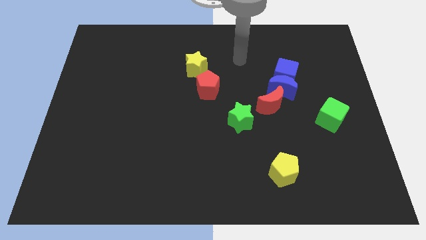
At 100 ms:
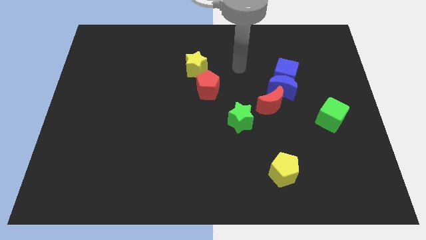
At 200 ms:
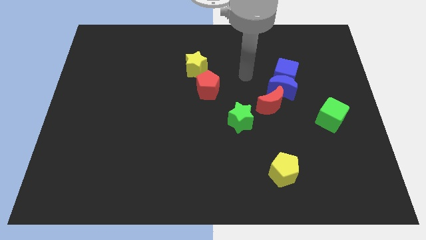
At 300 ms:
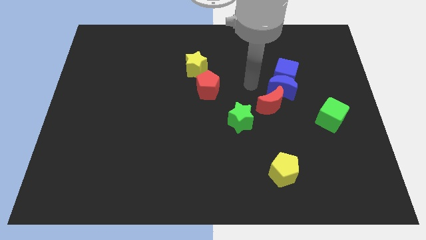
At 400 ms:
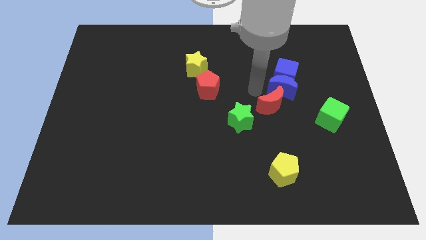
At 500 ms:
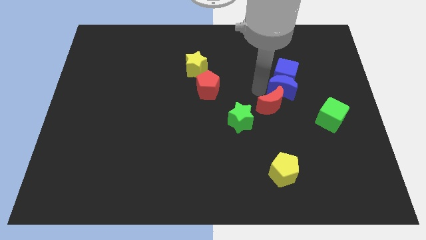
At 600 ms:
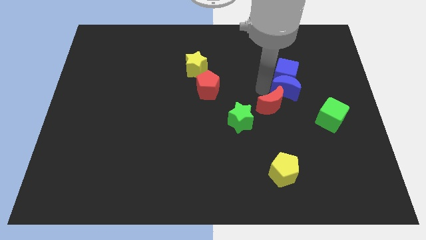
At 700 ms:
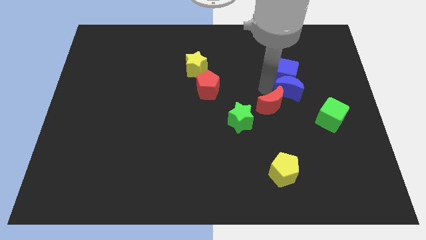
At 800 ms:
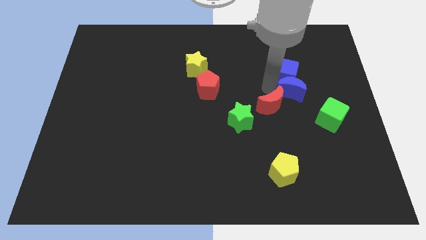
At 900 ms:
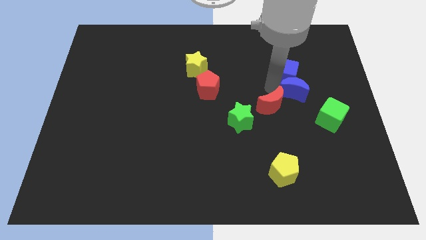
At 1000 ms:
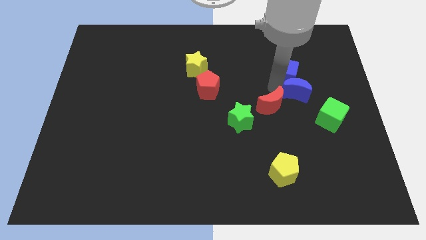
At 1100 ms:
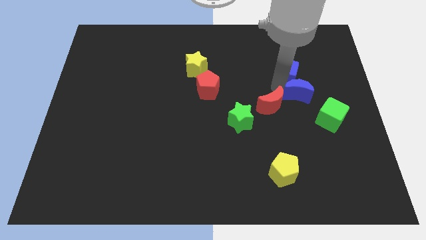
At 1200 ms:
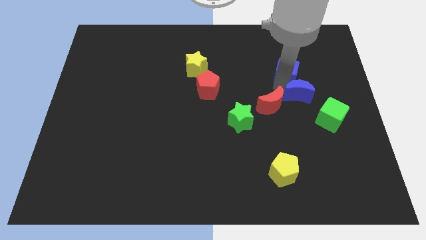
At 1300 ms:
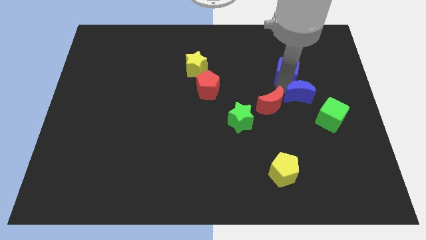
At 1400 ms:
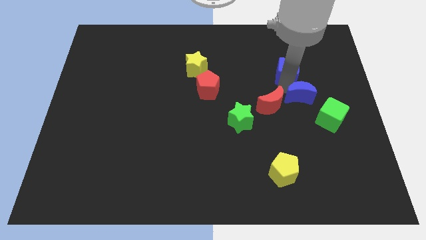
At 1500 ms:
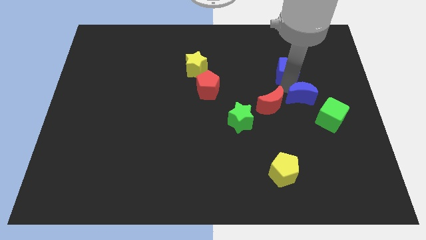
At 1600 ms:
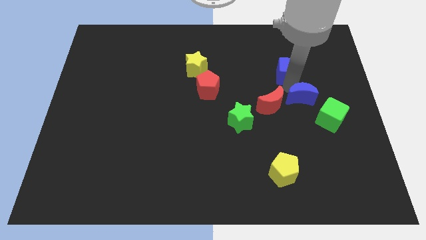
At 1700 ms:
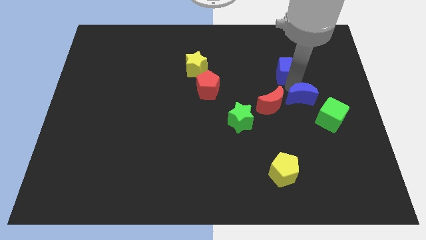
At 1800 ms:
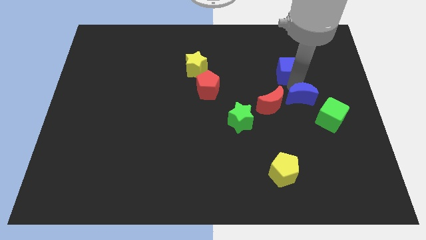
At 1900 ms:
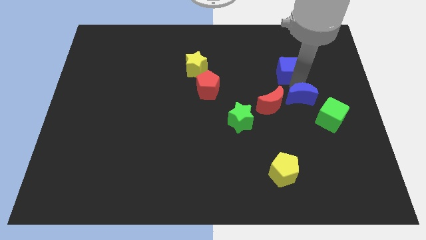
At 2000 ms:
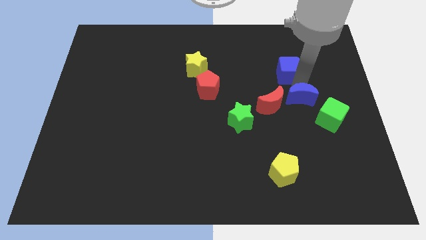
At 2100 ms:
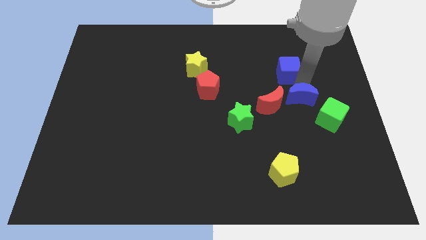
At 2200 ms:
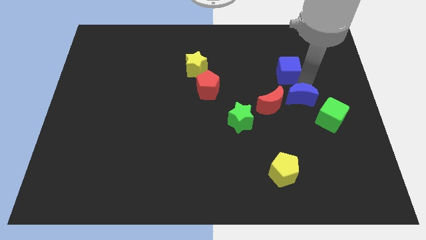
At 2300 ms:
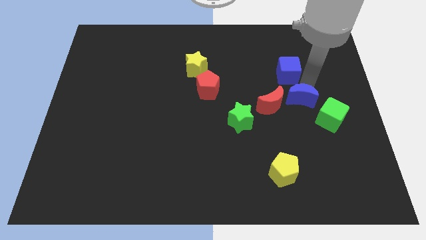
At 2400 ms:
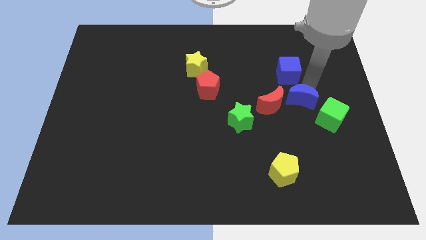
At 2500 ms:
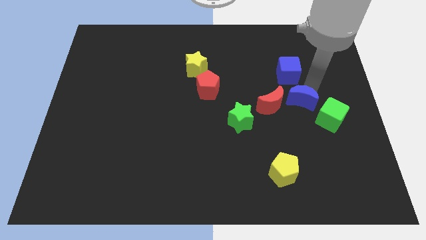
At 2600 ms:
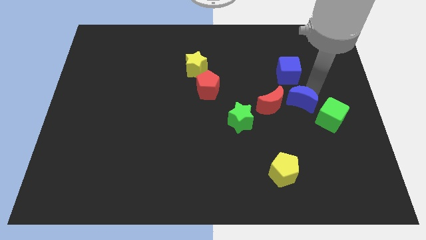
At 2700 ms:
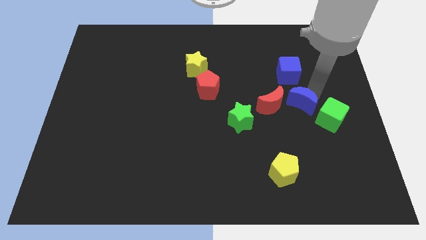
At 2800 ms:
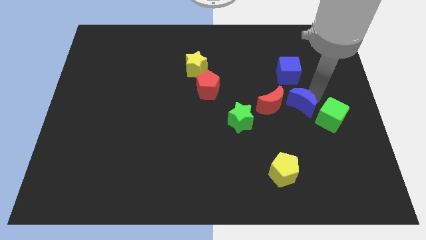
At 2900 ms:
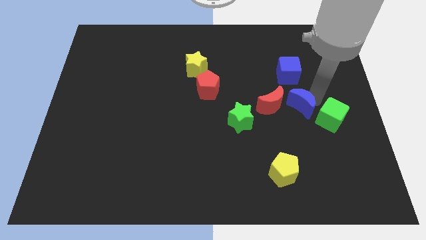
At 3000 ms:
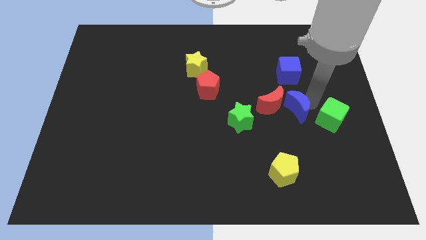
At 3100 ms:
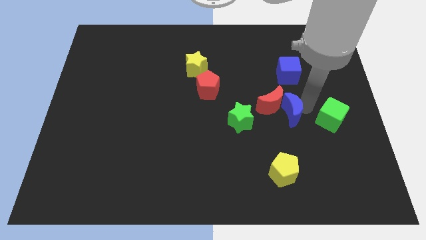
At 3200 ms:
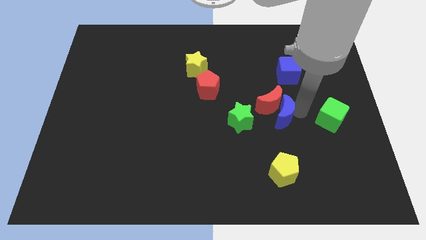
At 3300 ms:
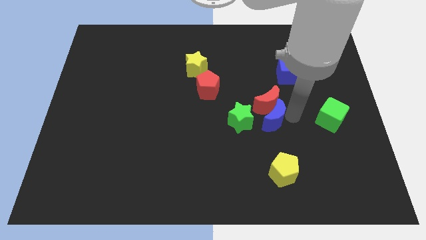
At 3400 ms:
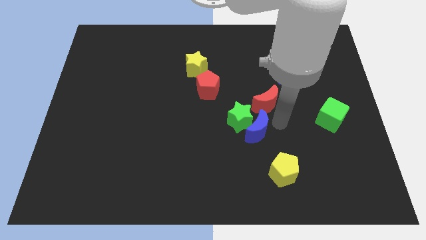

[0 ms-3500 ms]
move the blue moon away from the blue cube and red moon

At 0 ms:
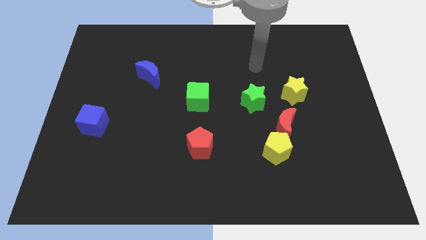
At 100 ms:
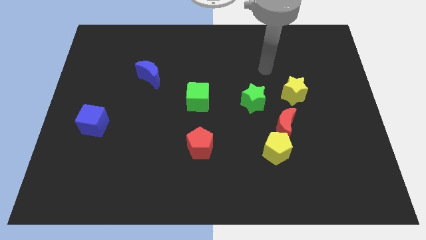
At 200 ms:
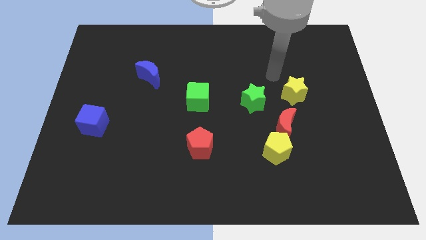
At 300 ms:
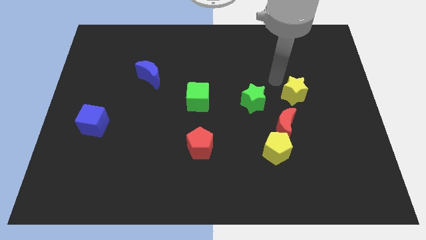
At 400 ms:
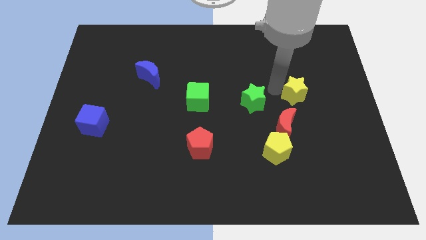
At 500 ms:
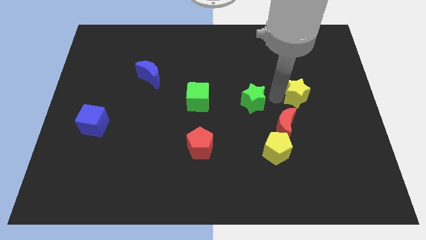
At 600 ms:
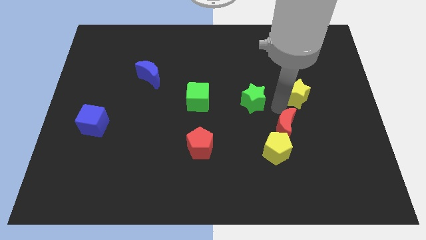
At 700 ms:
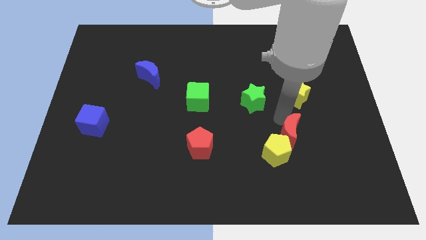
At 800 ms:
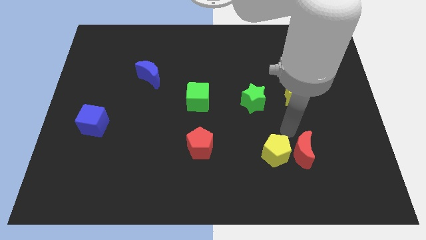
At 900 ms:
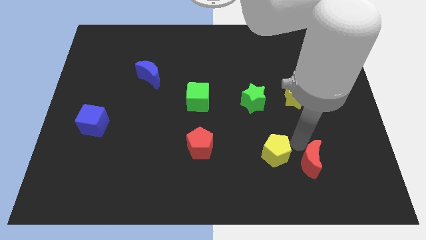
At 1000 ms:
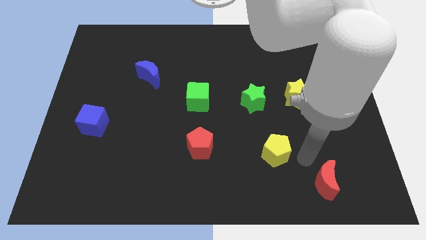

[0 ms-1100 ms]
separate the yellow pentagon from the red moon

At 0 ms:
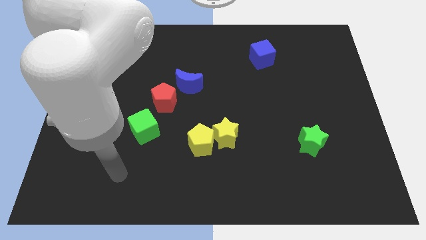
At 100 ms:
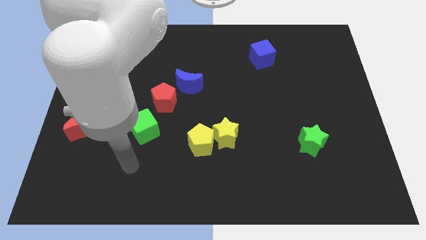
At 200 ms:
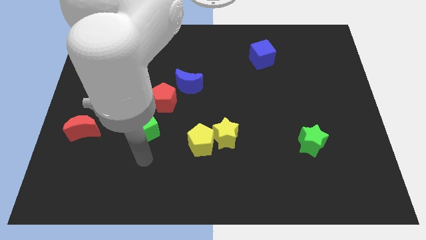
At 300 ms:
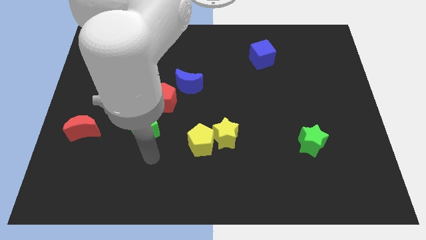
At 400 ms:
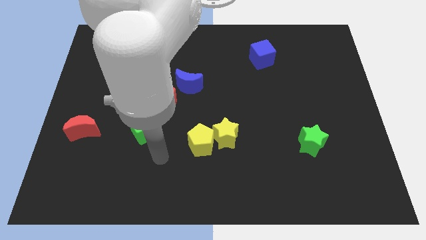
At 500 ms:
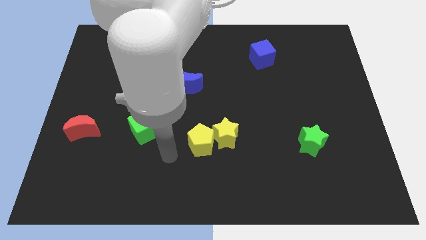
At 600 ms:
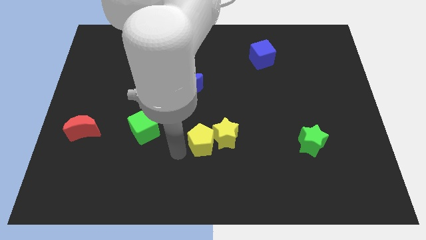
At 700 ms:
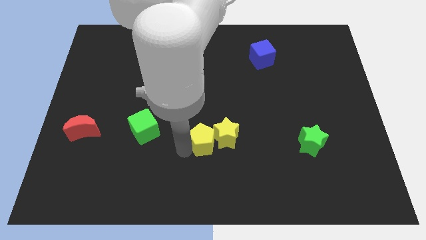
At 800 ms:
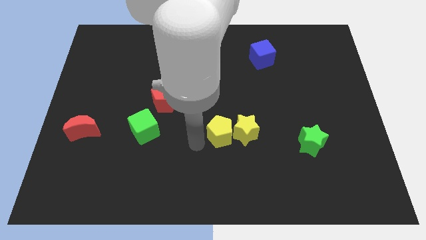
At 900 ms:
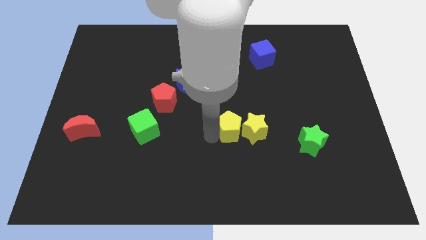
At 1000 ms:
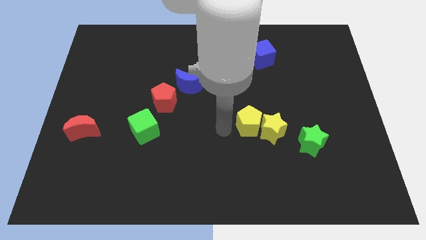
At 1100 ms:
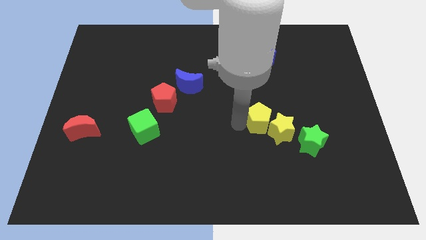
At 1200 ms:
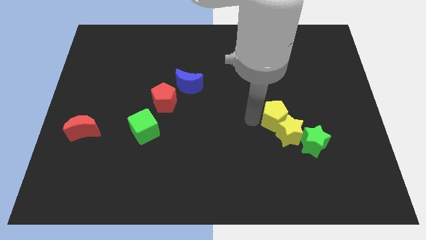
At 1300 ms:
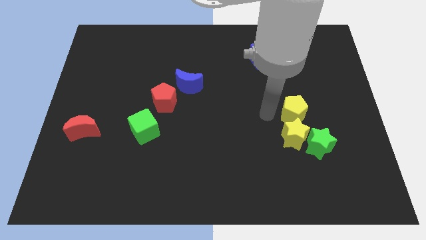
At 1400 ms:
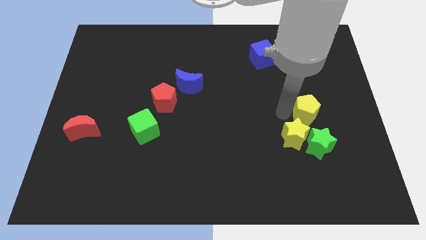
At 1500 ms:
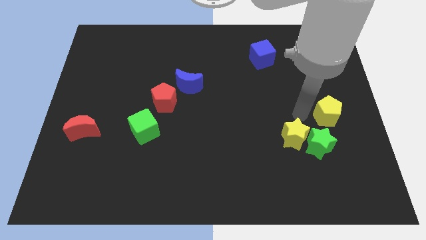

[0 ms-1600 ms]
move the yellow star away from the yellow pentagon

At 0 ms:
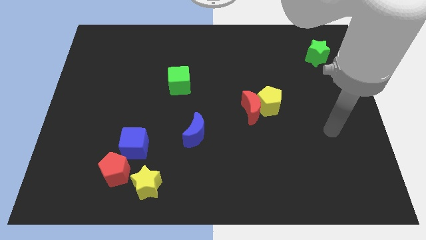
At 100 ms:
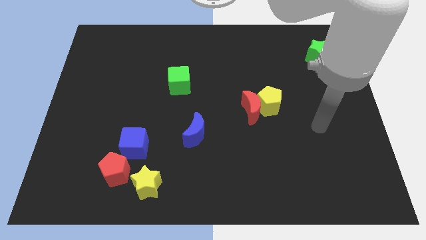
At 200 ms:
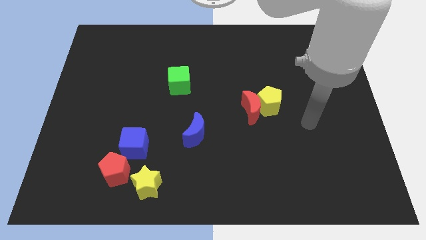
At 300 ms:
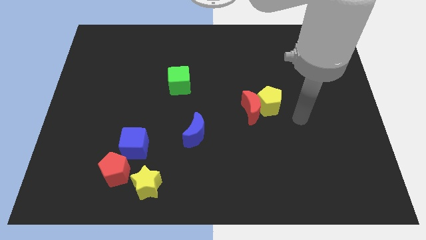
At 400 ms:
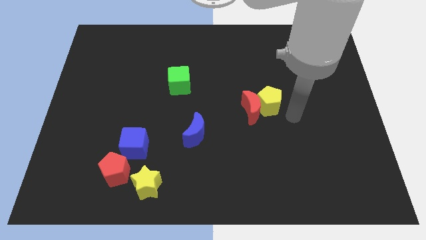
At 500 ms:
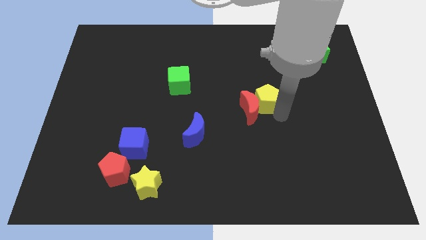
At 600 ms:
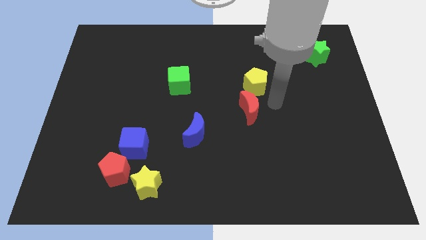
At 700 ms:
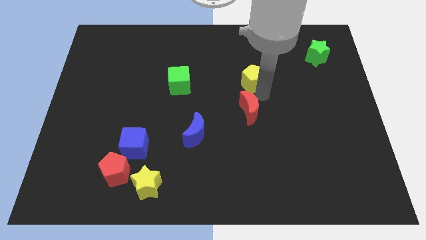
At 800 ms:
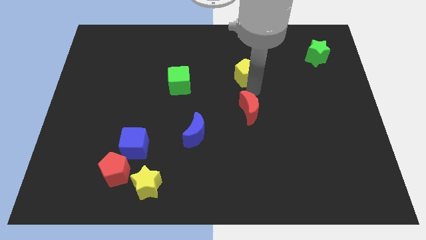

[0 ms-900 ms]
separate the red moon from the yellow pentagon

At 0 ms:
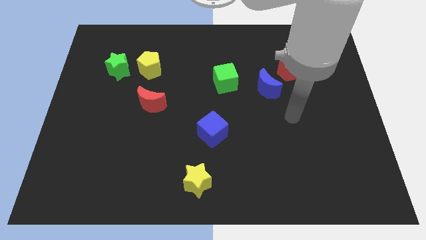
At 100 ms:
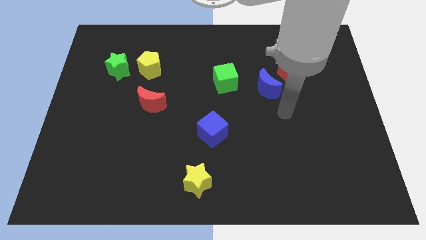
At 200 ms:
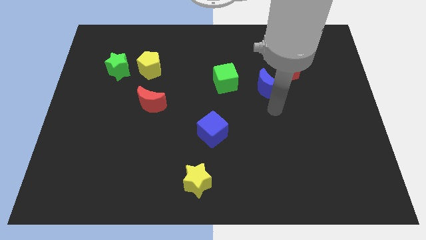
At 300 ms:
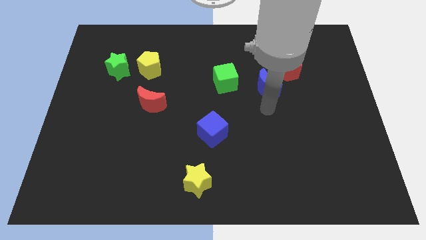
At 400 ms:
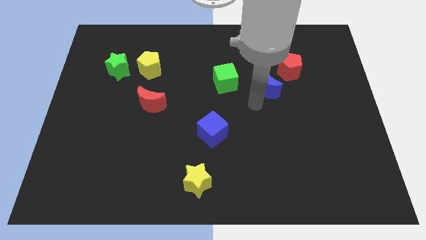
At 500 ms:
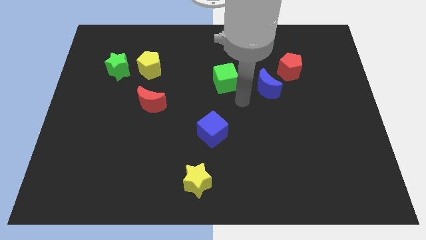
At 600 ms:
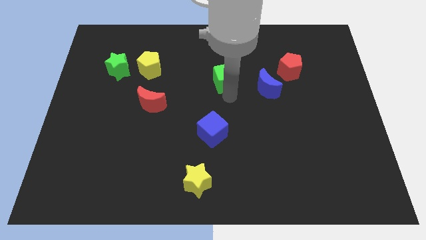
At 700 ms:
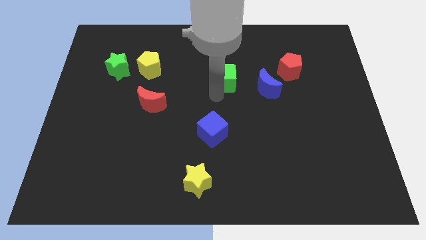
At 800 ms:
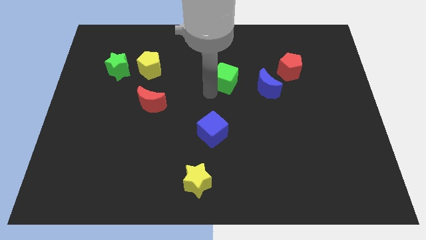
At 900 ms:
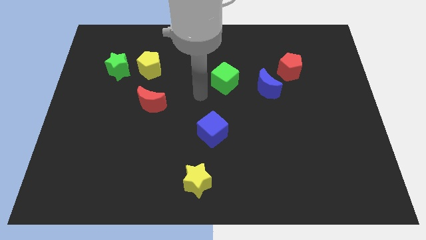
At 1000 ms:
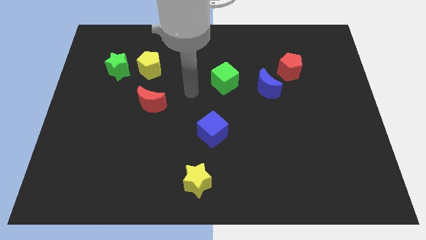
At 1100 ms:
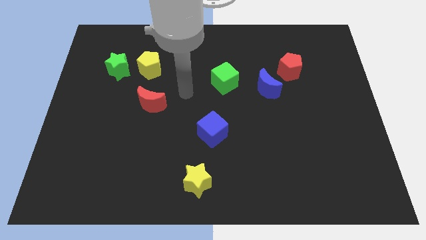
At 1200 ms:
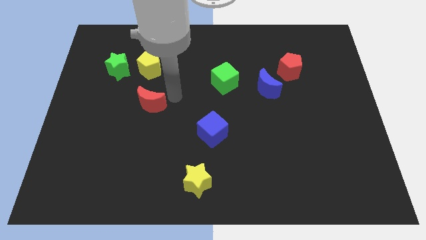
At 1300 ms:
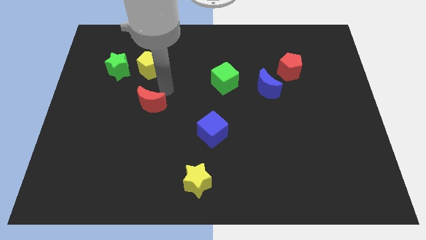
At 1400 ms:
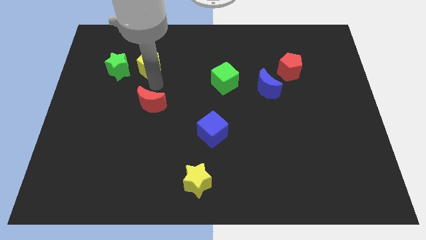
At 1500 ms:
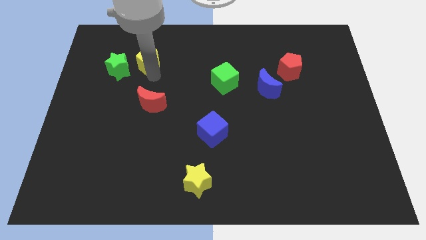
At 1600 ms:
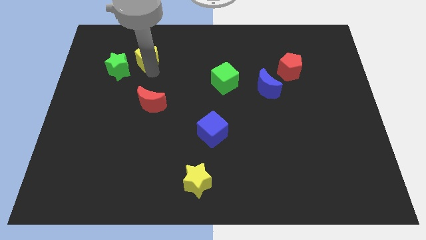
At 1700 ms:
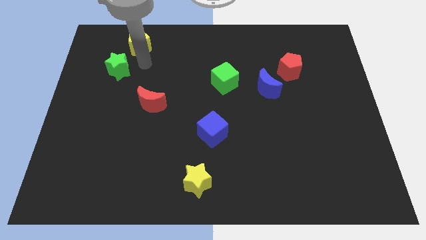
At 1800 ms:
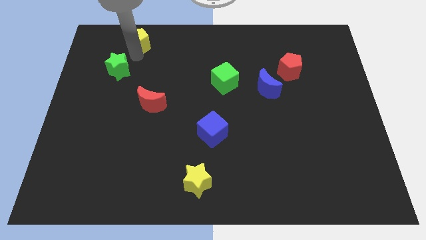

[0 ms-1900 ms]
move the green star away from the yellow pentagon

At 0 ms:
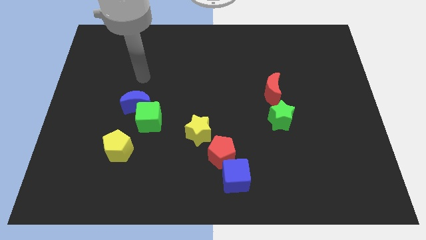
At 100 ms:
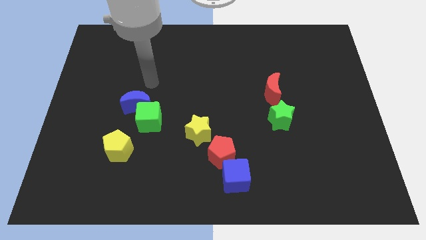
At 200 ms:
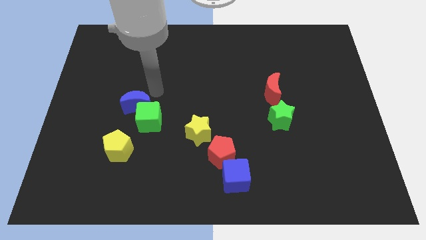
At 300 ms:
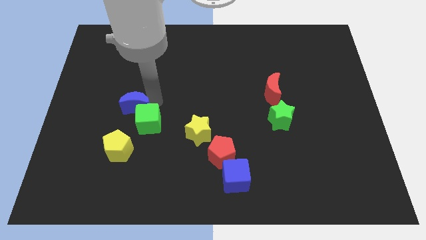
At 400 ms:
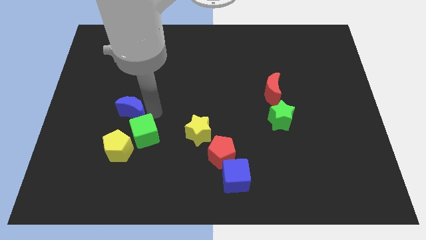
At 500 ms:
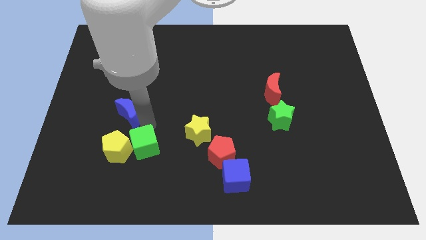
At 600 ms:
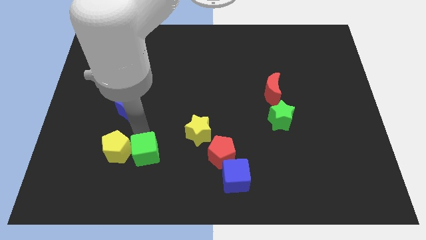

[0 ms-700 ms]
separate the blue moon from the green cube
